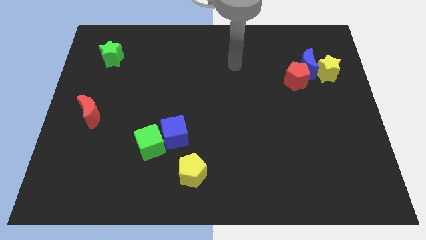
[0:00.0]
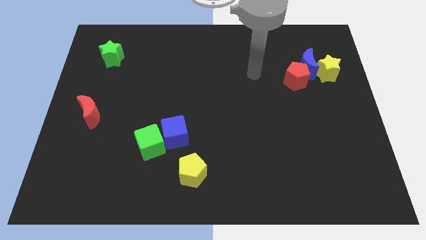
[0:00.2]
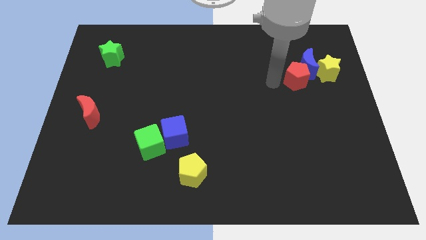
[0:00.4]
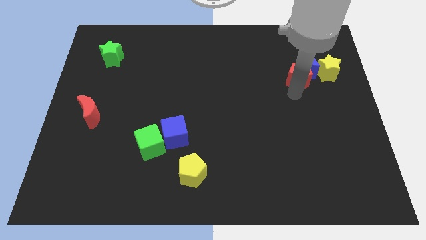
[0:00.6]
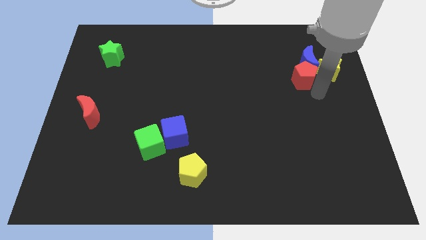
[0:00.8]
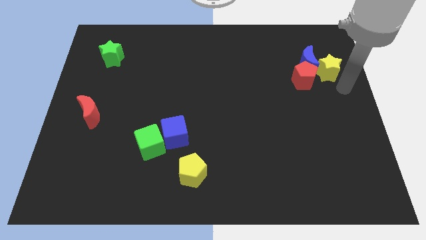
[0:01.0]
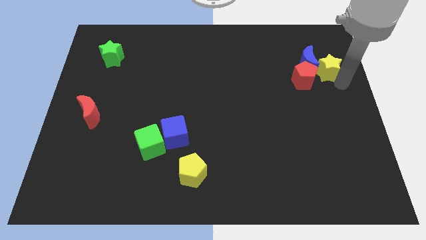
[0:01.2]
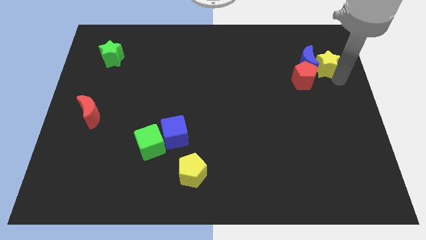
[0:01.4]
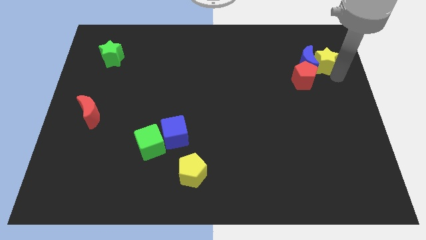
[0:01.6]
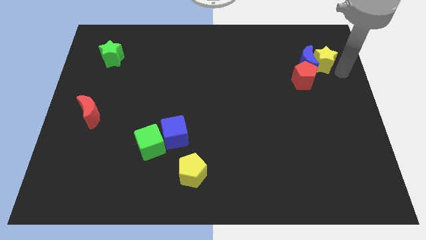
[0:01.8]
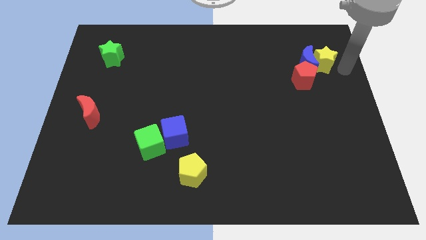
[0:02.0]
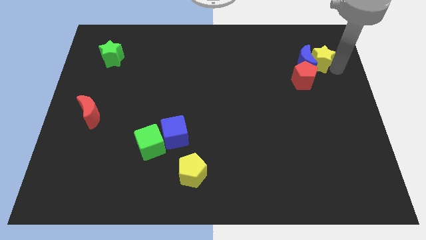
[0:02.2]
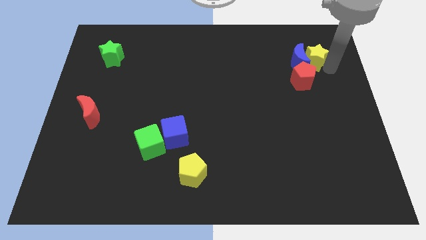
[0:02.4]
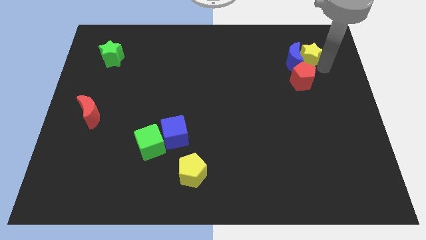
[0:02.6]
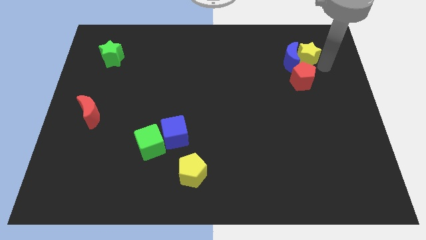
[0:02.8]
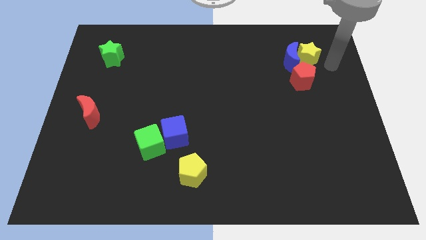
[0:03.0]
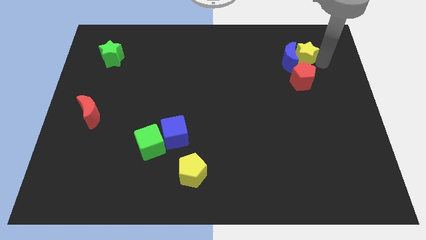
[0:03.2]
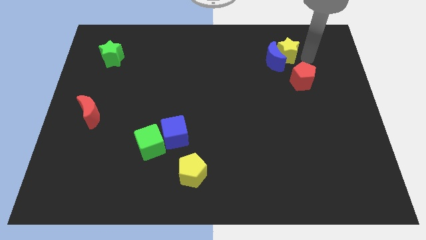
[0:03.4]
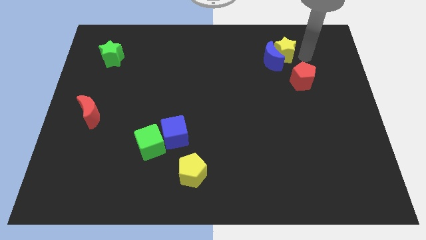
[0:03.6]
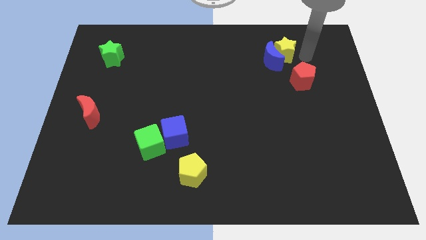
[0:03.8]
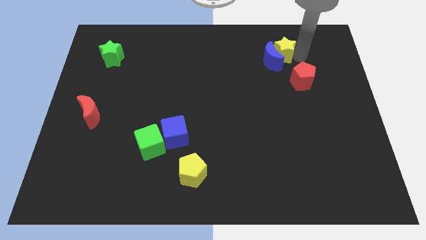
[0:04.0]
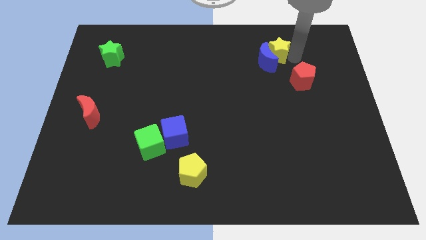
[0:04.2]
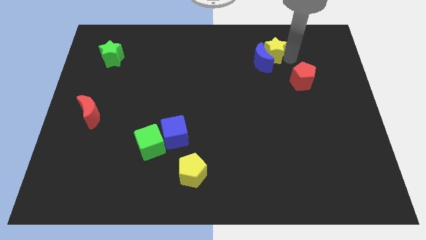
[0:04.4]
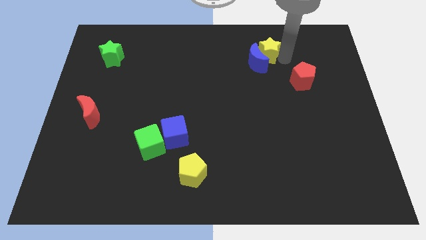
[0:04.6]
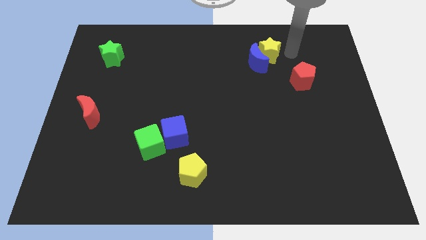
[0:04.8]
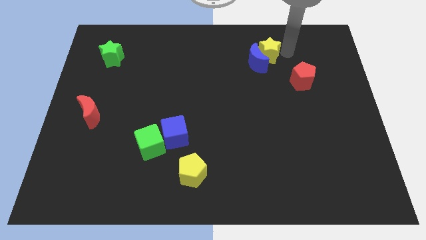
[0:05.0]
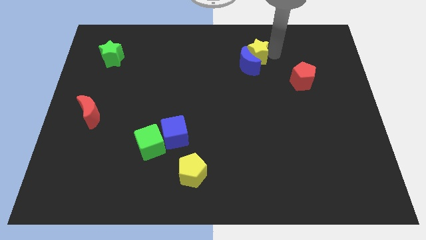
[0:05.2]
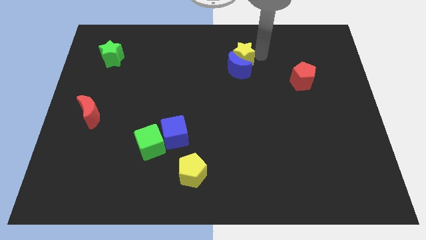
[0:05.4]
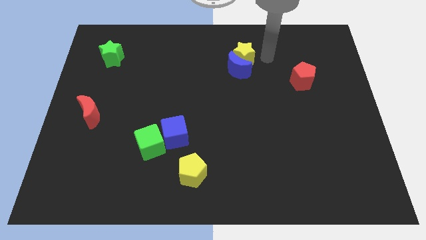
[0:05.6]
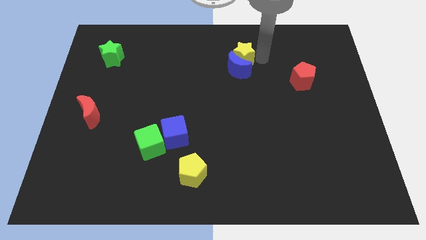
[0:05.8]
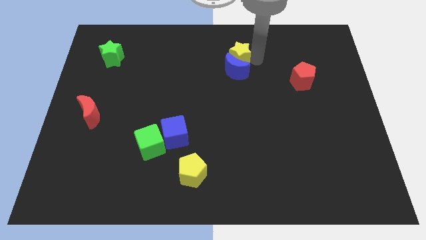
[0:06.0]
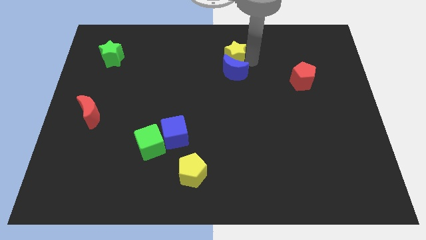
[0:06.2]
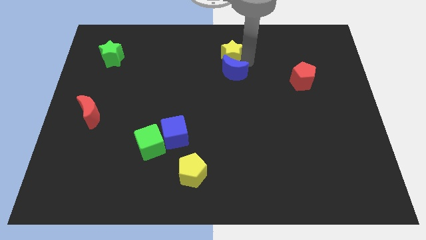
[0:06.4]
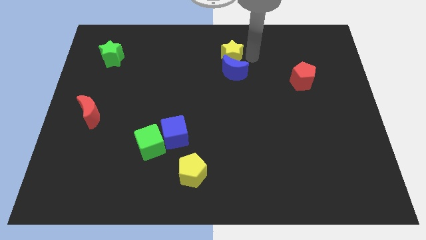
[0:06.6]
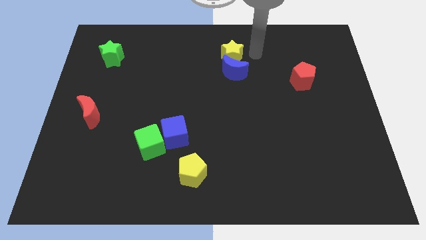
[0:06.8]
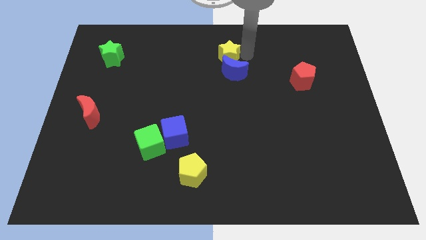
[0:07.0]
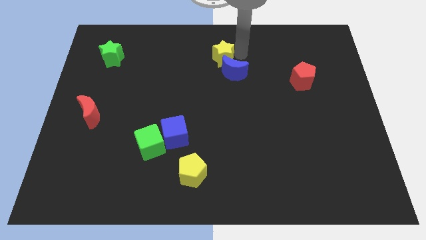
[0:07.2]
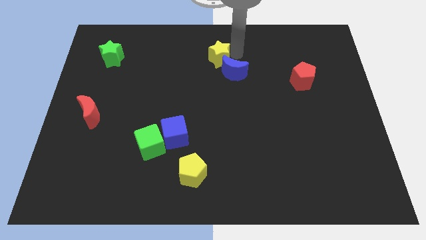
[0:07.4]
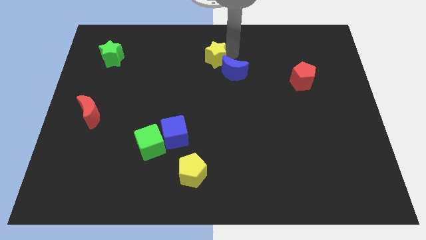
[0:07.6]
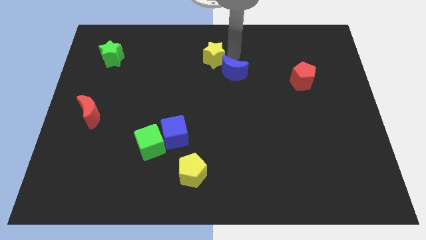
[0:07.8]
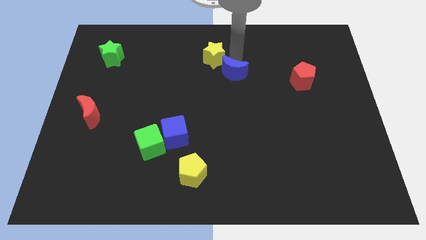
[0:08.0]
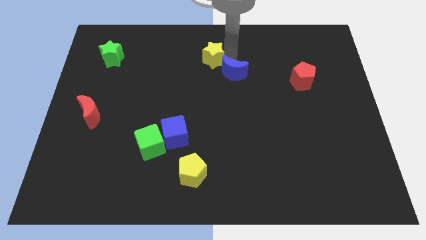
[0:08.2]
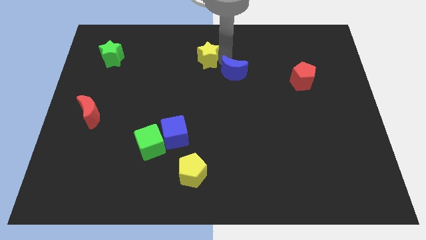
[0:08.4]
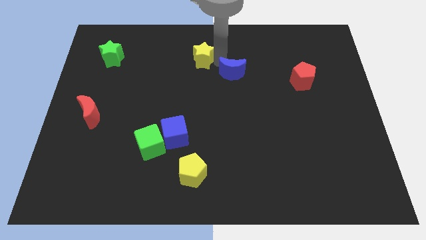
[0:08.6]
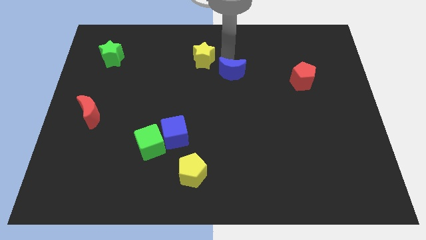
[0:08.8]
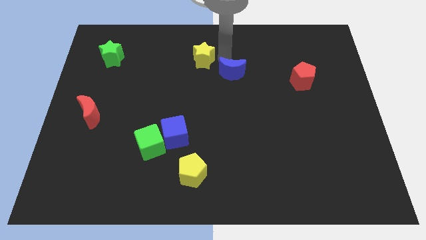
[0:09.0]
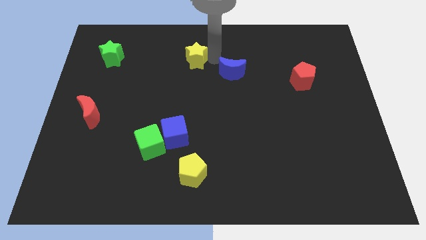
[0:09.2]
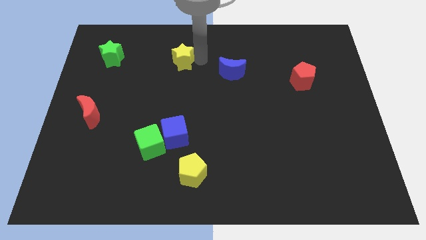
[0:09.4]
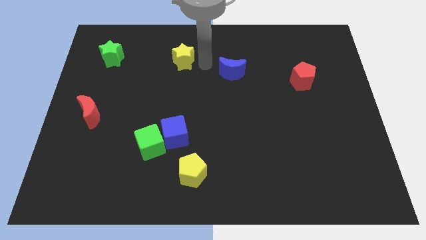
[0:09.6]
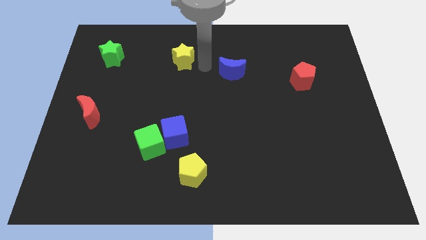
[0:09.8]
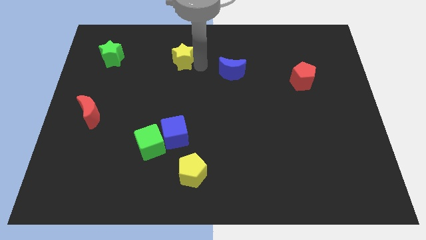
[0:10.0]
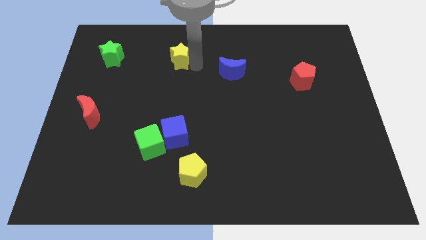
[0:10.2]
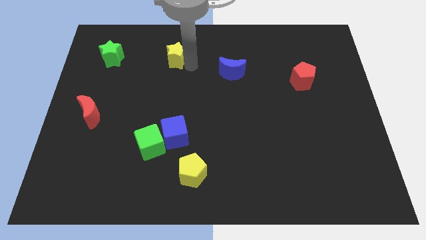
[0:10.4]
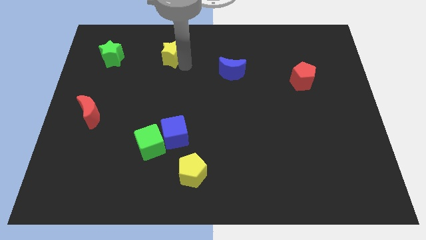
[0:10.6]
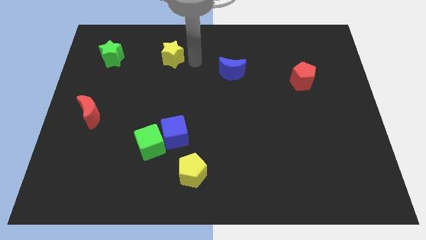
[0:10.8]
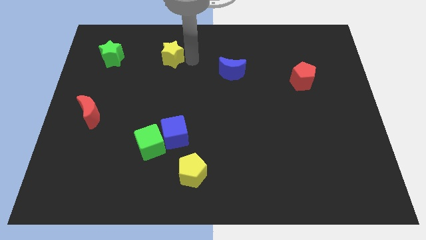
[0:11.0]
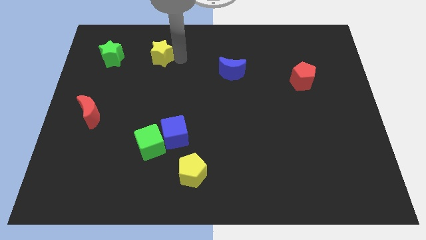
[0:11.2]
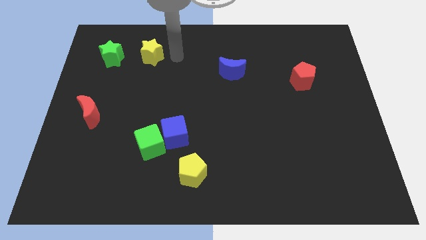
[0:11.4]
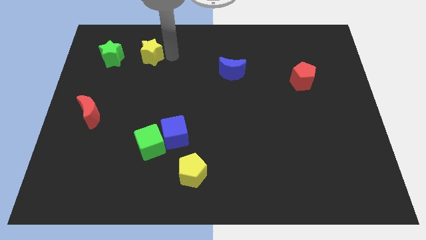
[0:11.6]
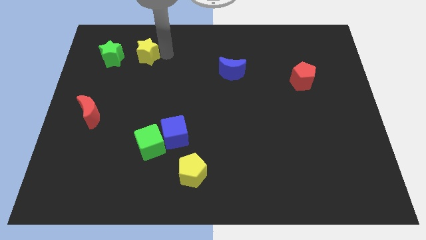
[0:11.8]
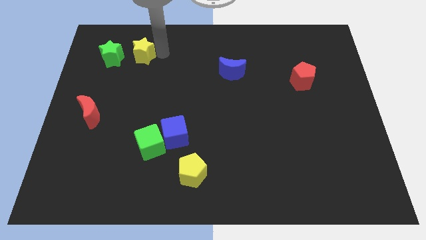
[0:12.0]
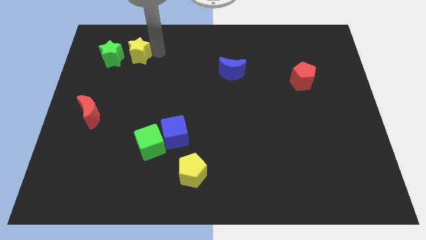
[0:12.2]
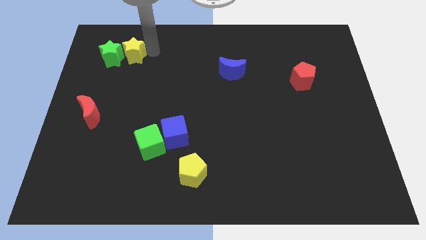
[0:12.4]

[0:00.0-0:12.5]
move the yellow star to the green star

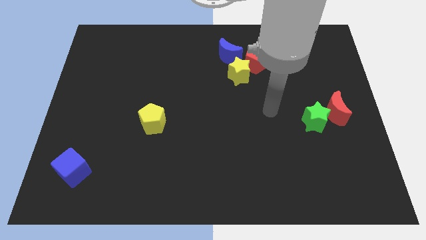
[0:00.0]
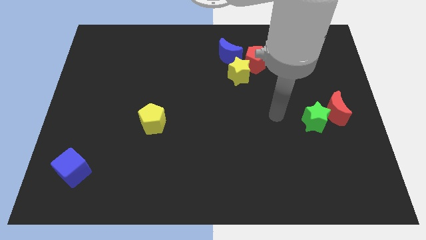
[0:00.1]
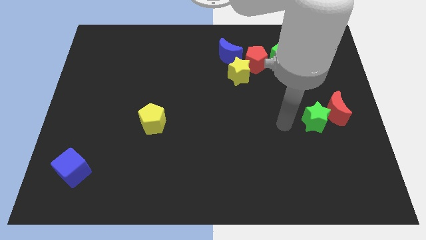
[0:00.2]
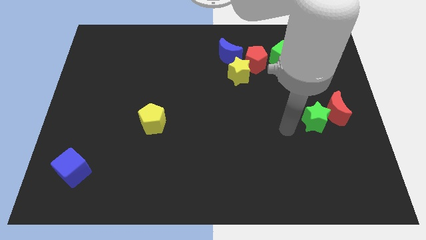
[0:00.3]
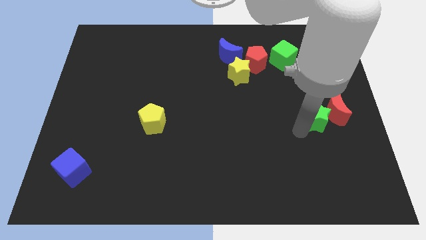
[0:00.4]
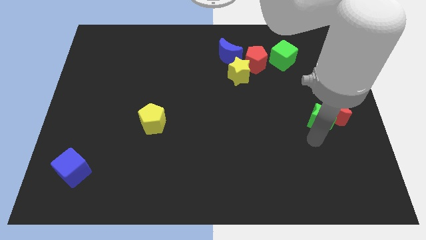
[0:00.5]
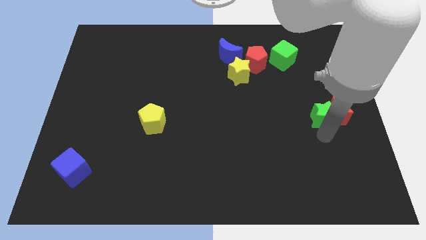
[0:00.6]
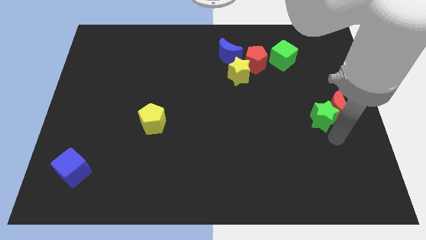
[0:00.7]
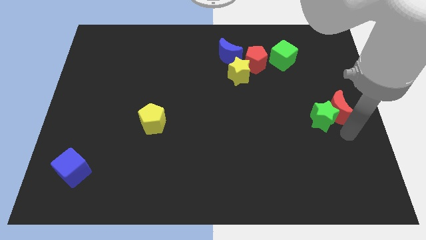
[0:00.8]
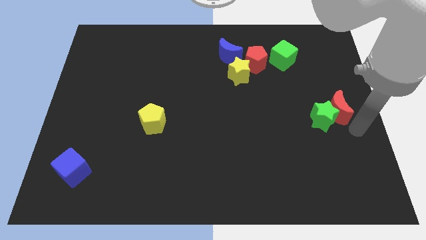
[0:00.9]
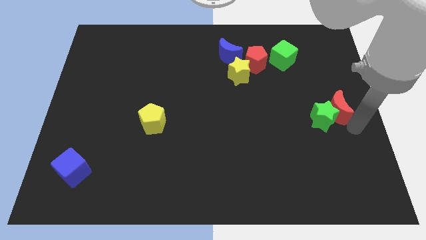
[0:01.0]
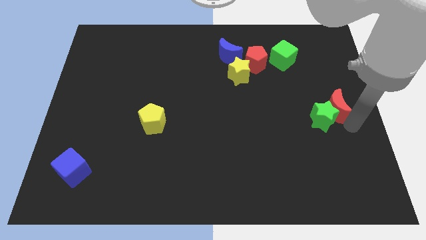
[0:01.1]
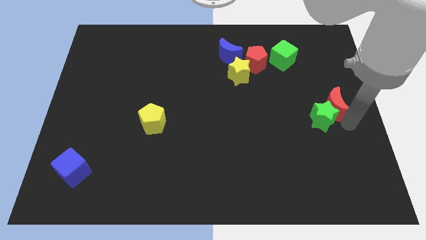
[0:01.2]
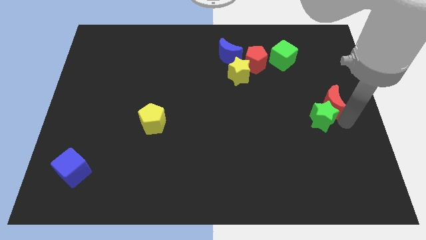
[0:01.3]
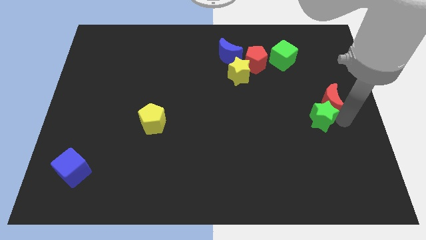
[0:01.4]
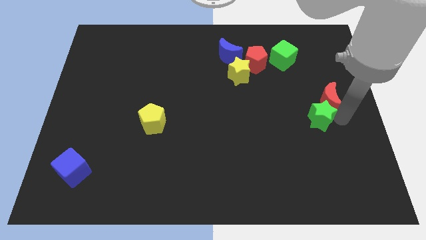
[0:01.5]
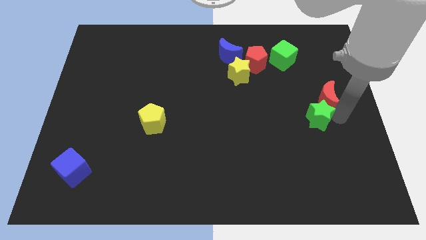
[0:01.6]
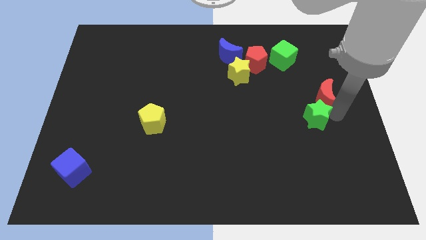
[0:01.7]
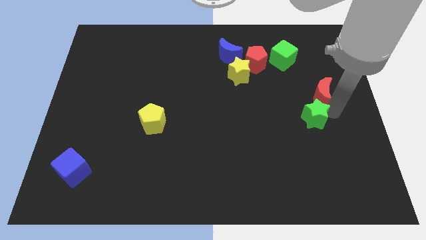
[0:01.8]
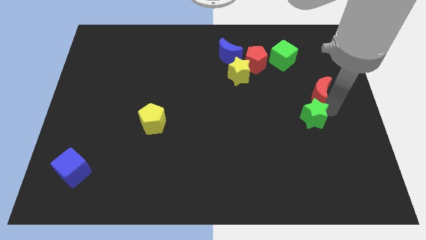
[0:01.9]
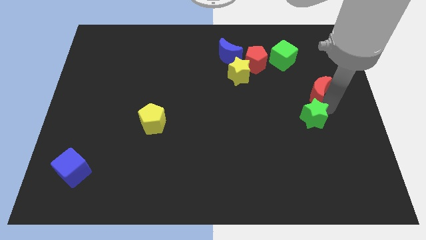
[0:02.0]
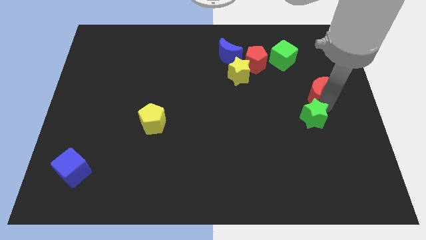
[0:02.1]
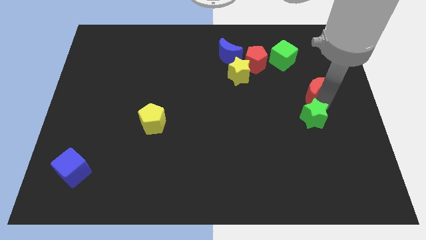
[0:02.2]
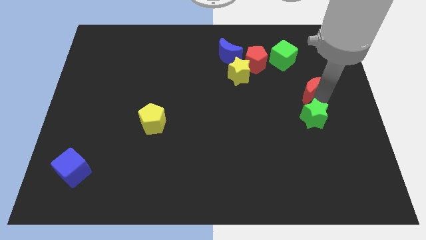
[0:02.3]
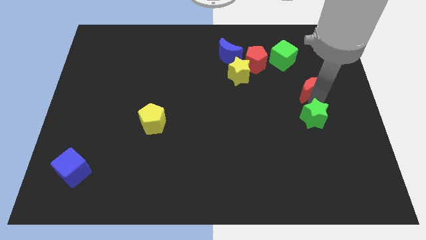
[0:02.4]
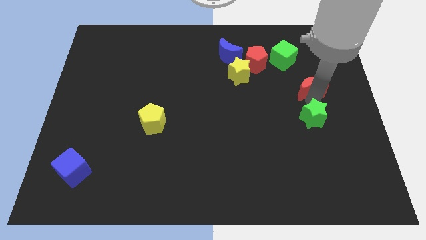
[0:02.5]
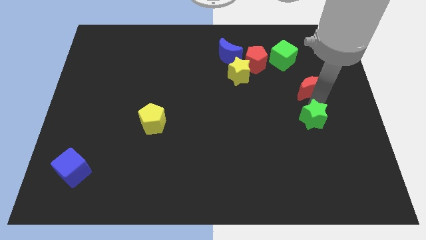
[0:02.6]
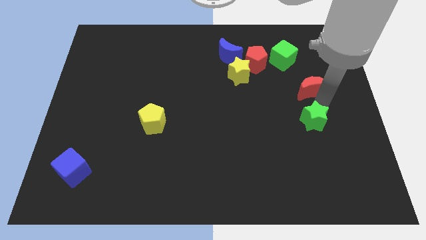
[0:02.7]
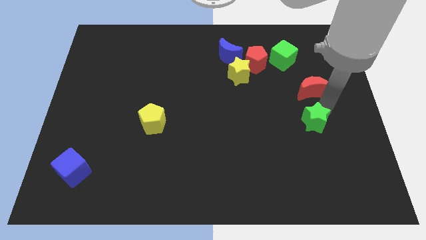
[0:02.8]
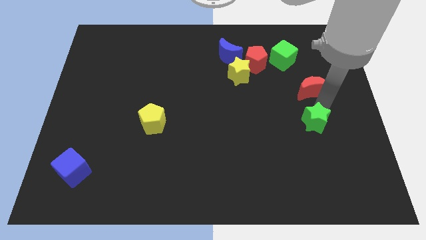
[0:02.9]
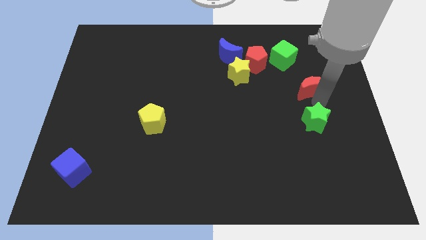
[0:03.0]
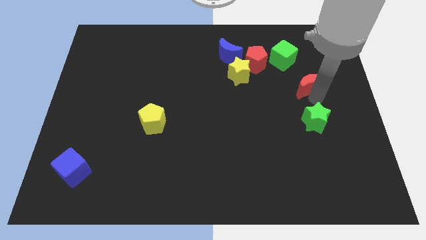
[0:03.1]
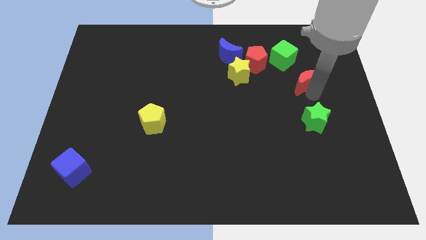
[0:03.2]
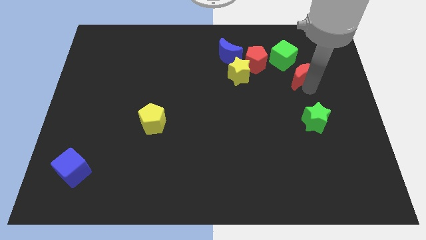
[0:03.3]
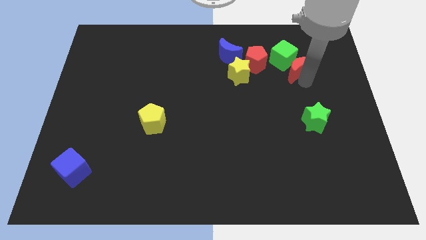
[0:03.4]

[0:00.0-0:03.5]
put the red moon close to the green cube
